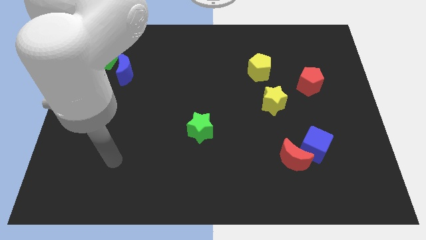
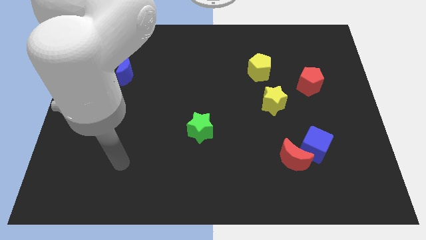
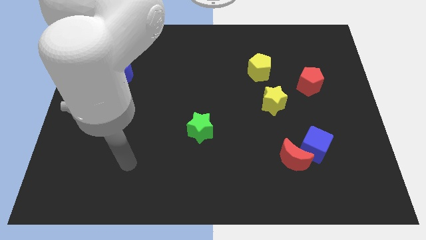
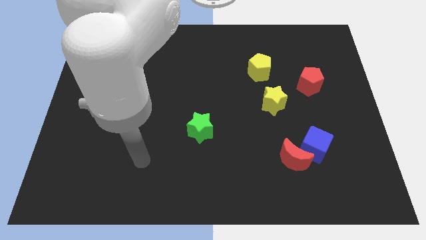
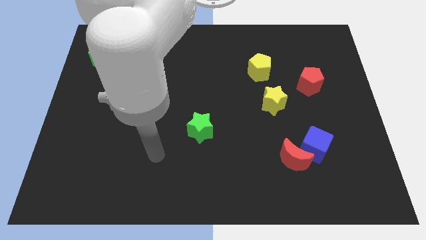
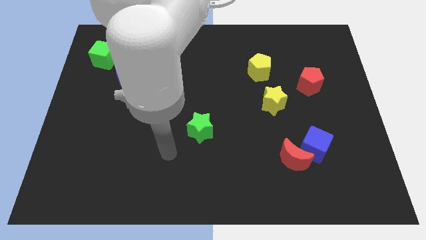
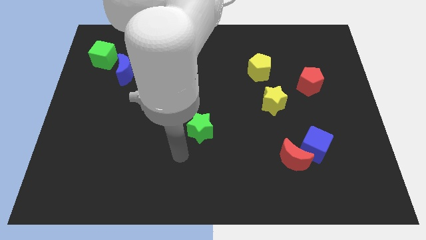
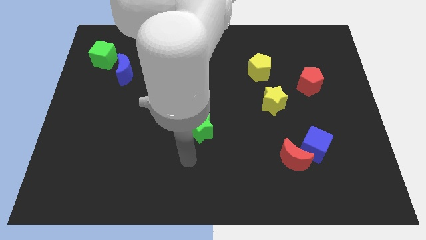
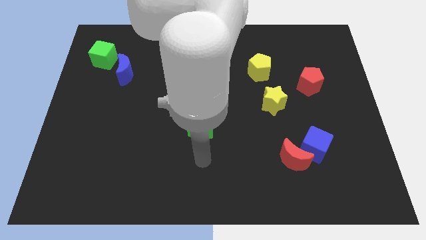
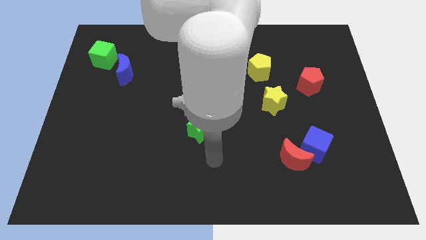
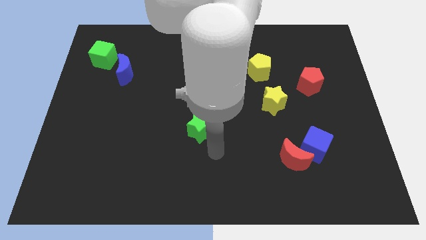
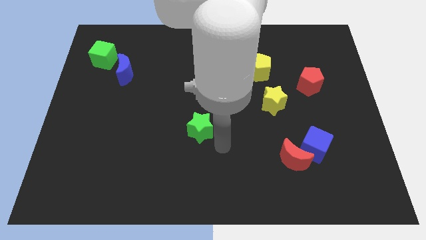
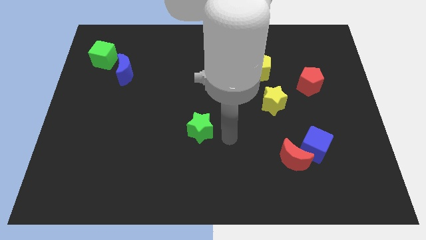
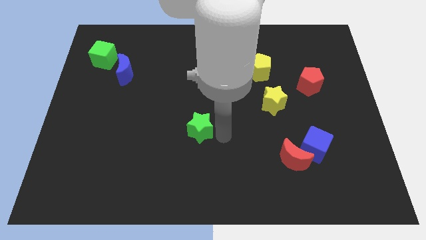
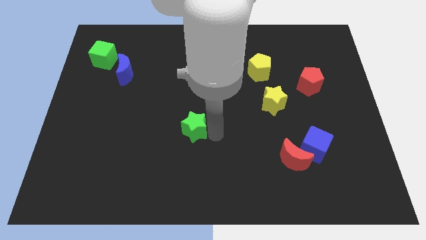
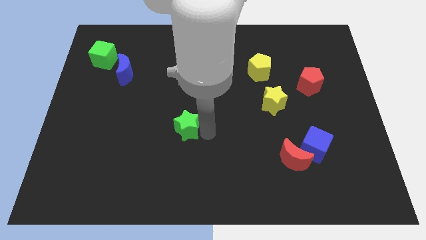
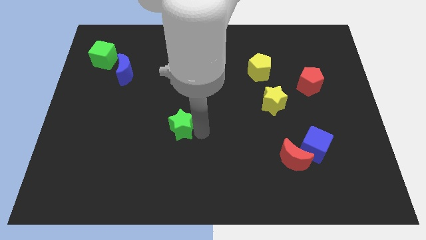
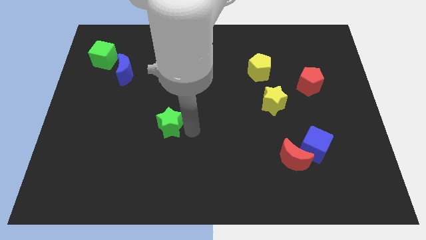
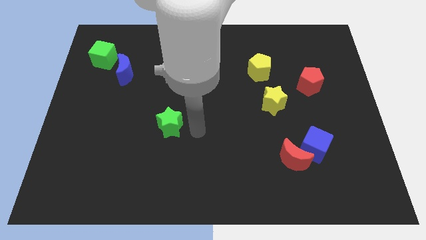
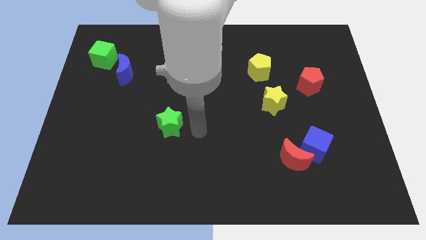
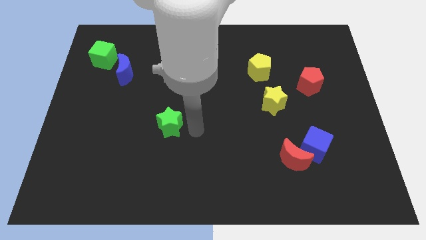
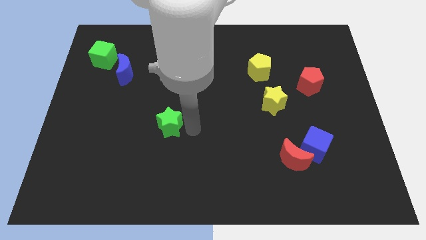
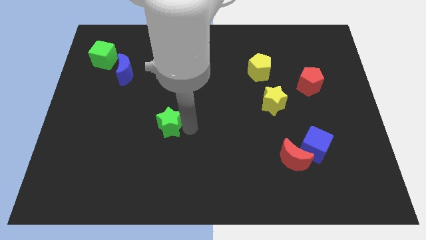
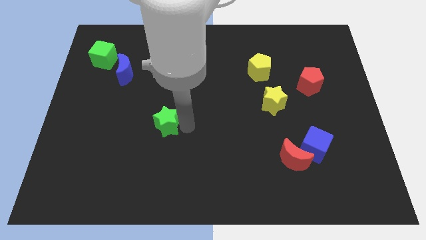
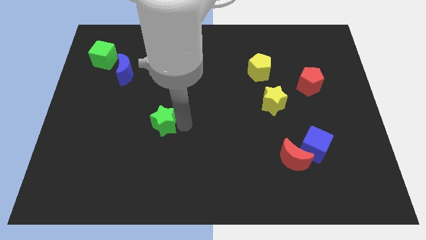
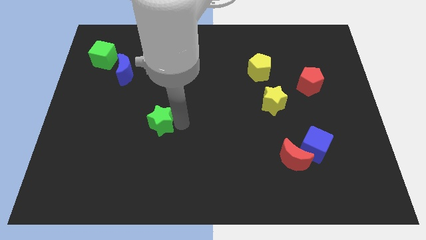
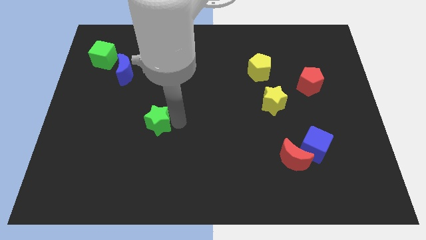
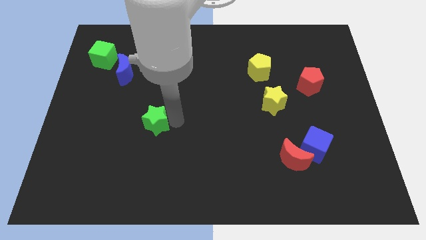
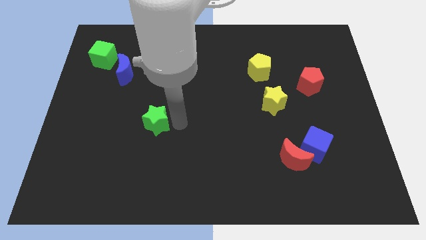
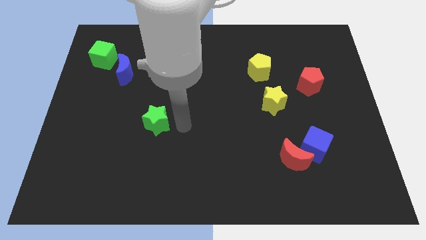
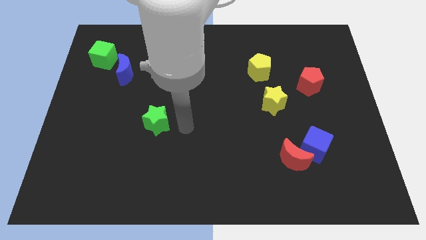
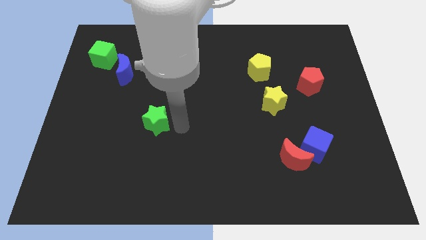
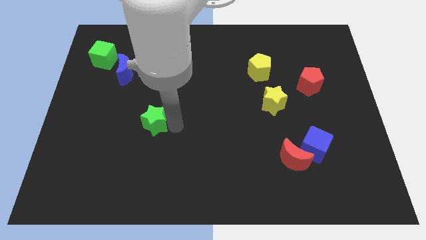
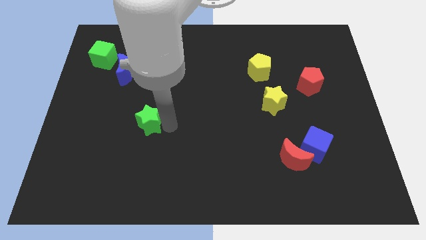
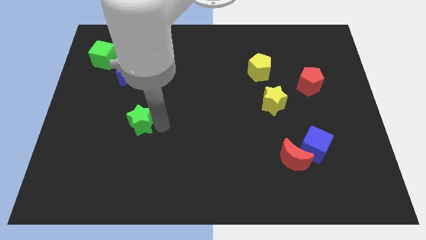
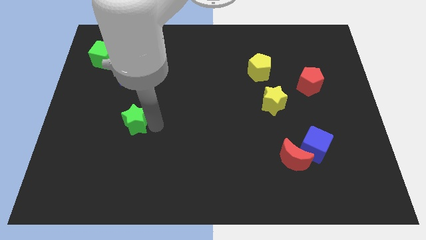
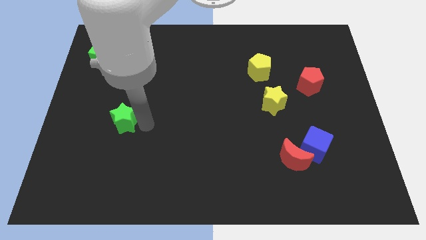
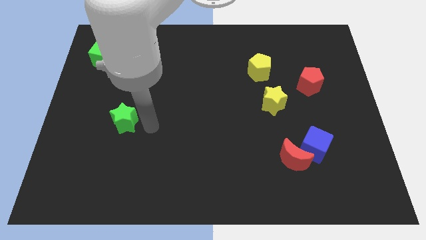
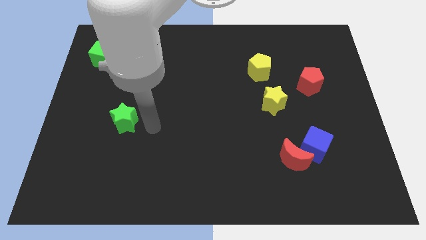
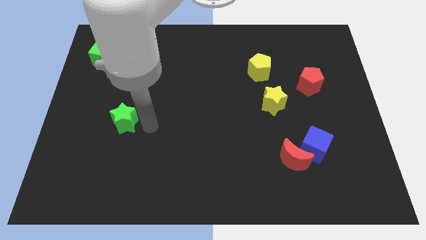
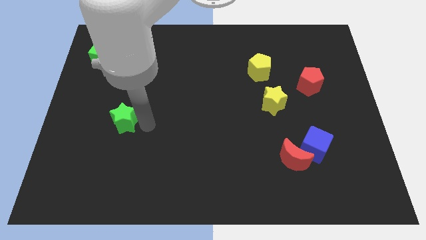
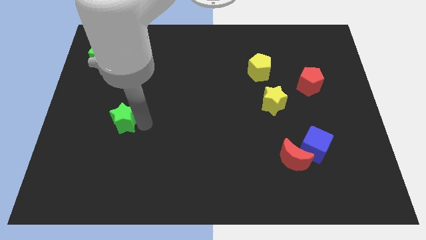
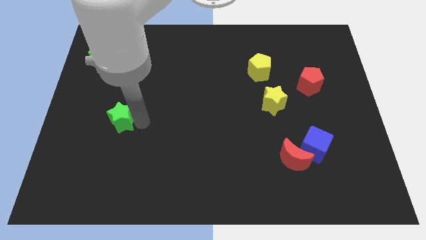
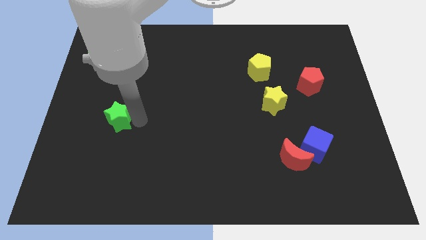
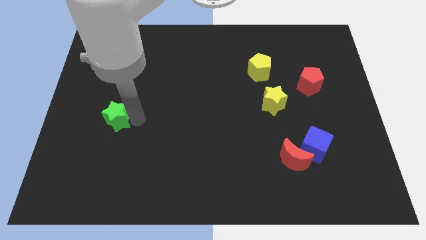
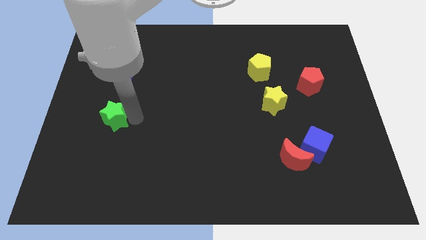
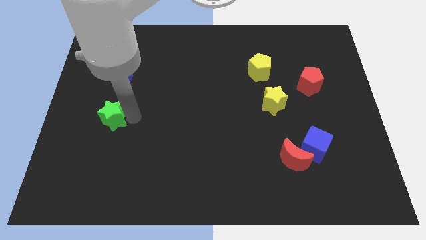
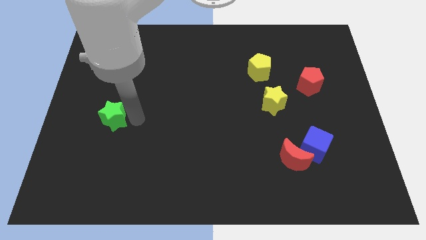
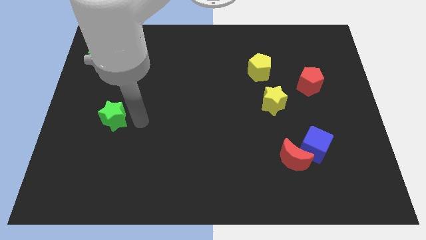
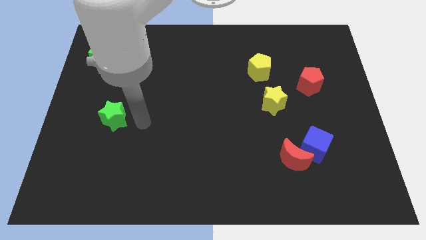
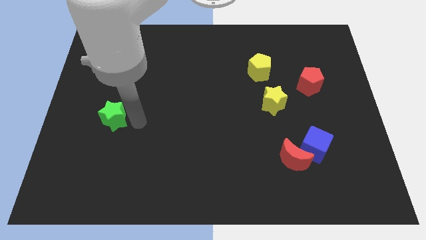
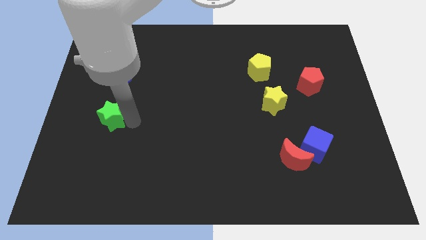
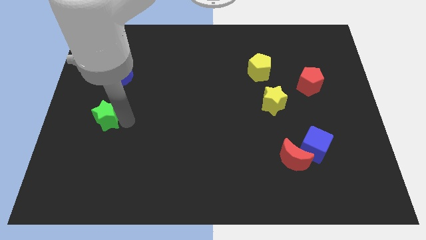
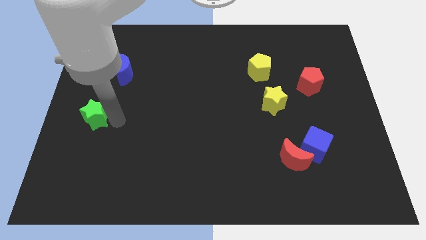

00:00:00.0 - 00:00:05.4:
slide the green star to the center left
